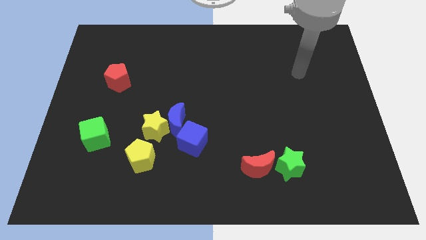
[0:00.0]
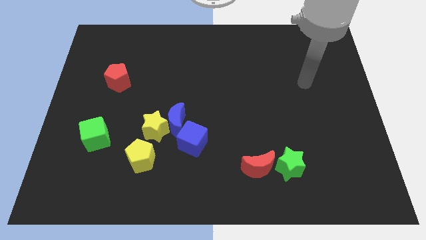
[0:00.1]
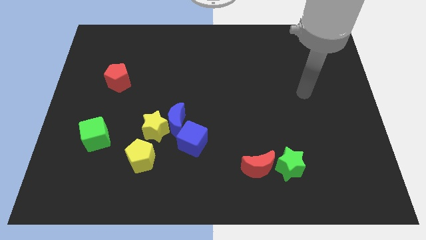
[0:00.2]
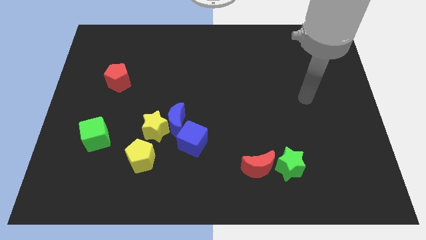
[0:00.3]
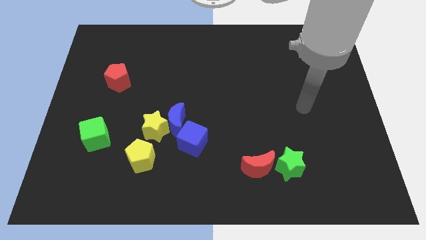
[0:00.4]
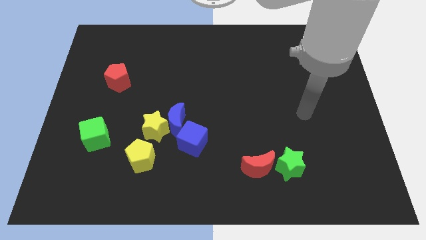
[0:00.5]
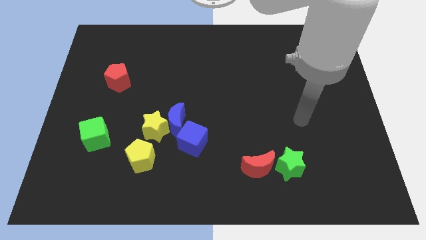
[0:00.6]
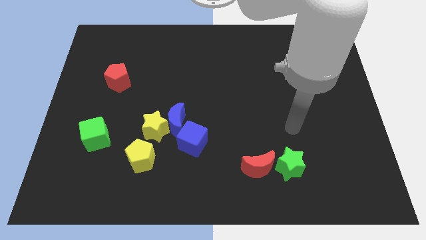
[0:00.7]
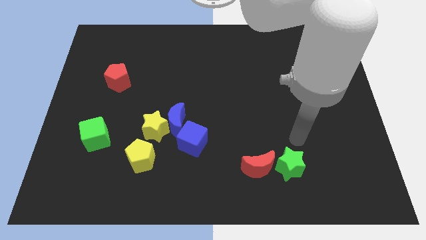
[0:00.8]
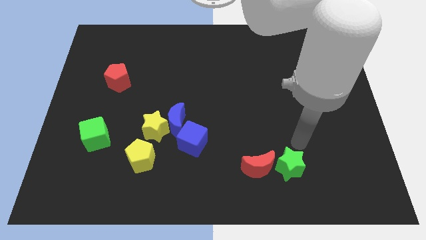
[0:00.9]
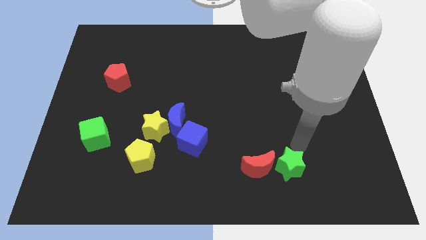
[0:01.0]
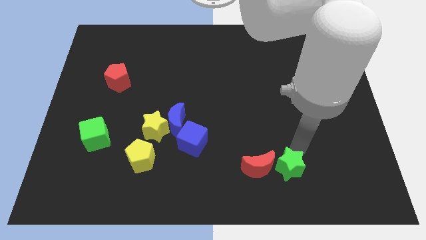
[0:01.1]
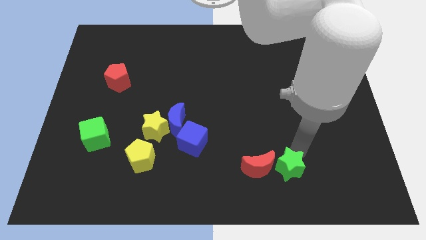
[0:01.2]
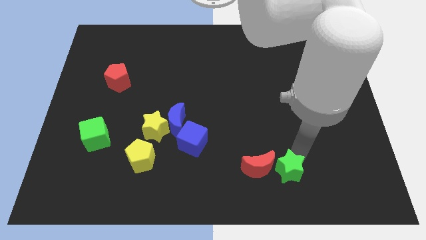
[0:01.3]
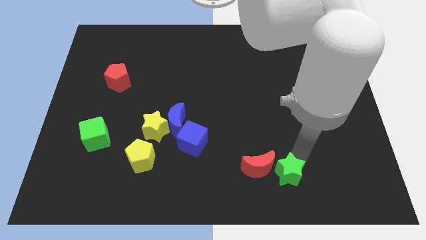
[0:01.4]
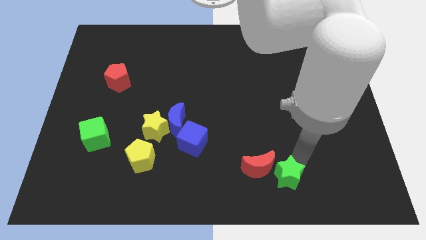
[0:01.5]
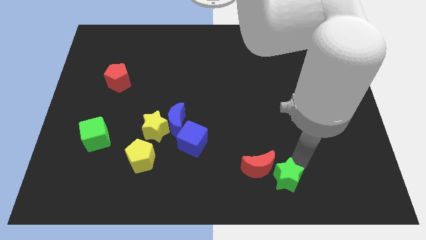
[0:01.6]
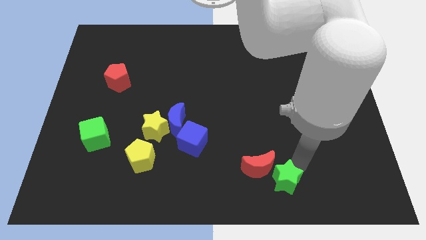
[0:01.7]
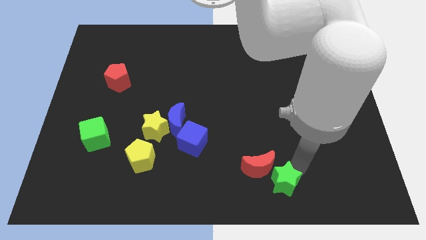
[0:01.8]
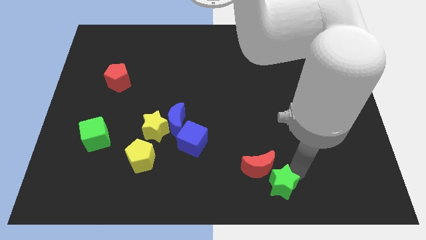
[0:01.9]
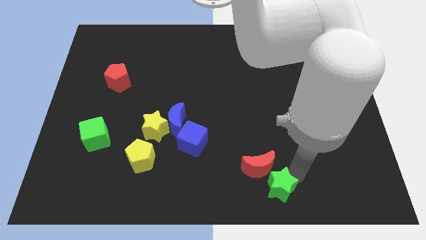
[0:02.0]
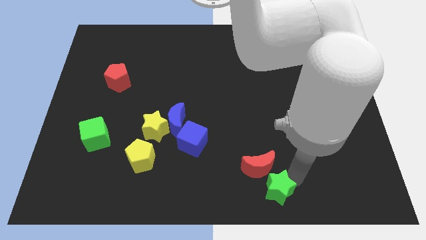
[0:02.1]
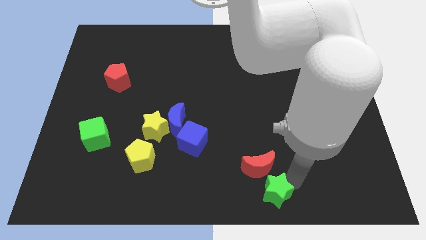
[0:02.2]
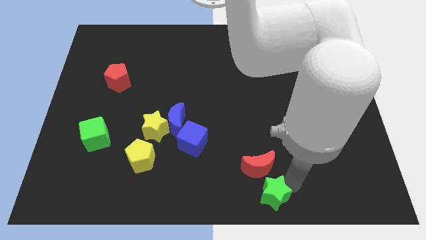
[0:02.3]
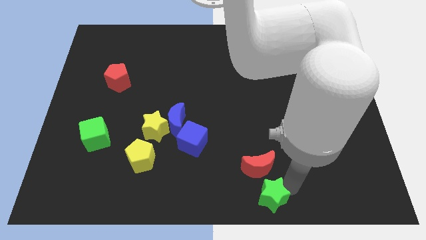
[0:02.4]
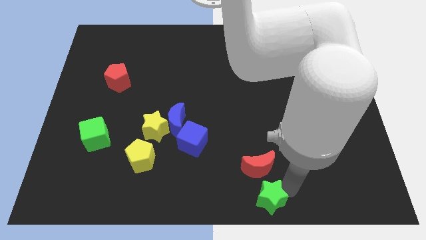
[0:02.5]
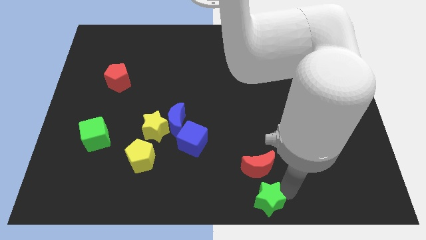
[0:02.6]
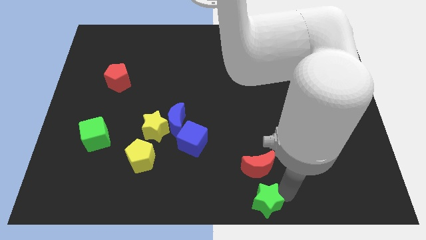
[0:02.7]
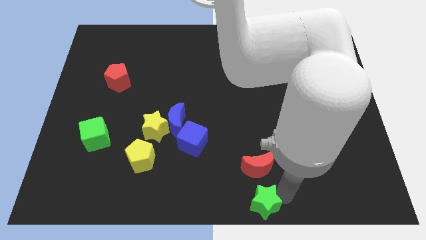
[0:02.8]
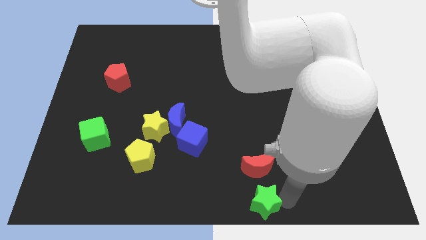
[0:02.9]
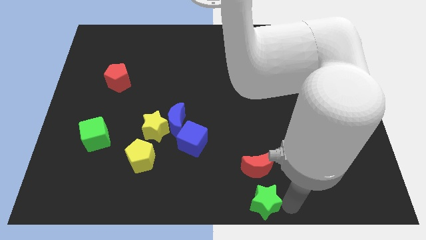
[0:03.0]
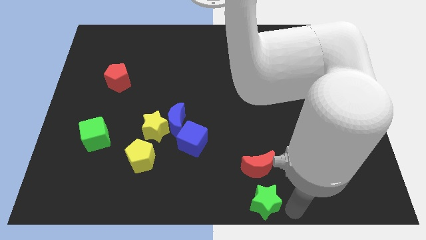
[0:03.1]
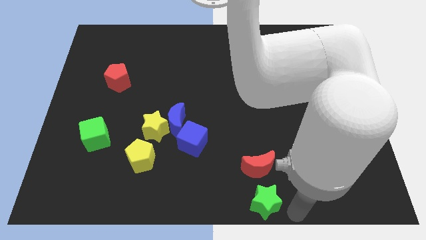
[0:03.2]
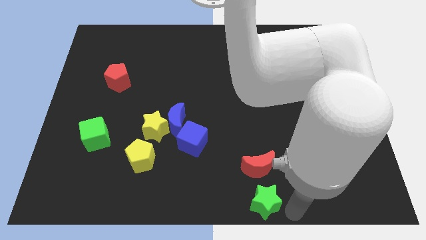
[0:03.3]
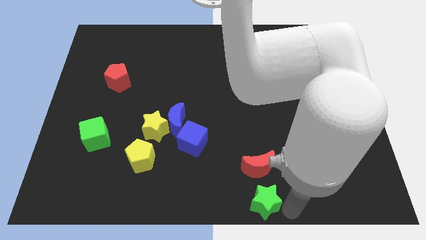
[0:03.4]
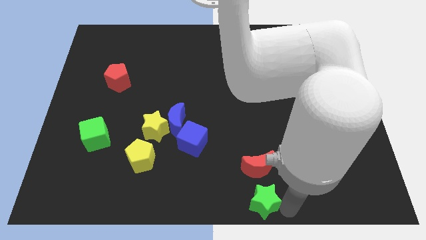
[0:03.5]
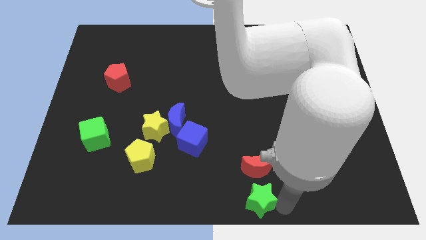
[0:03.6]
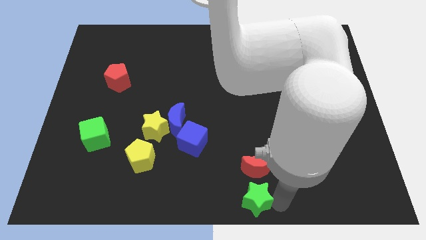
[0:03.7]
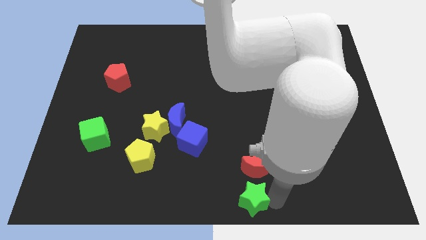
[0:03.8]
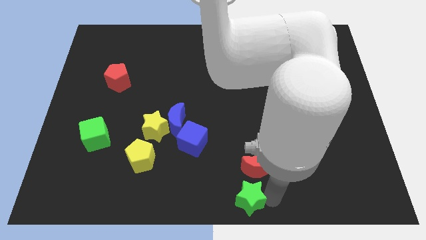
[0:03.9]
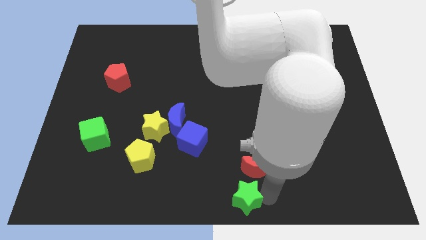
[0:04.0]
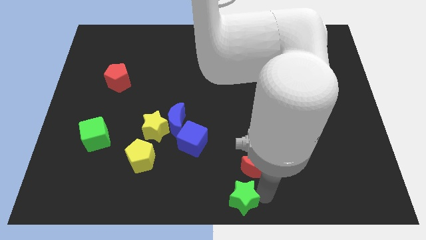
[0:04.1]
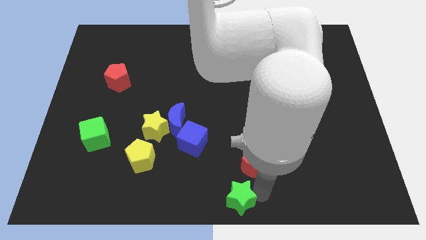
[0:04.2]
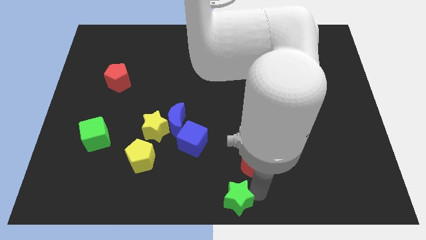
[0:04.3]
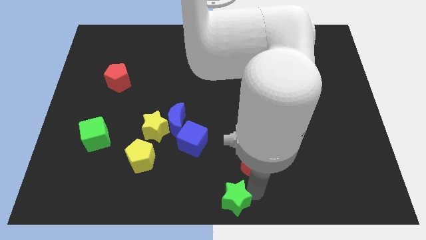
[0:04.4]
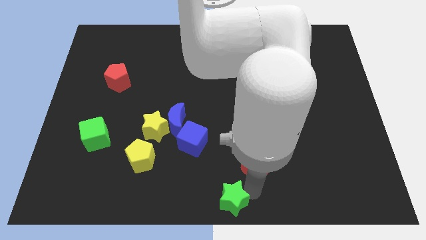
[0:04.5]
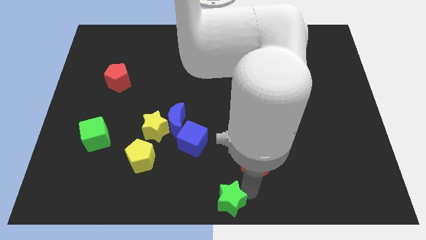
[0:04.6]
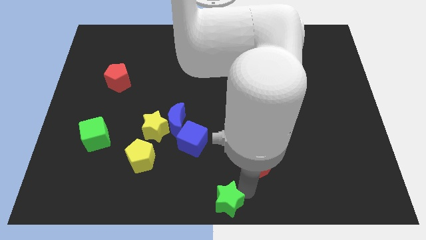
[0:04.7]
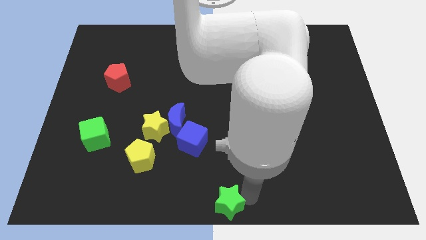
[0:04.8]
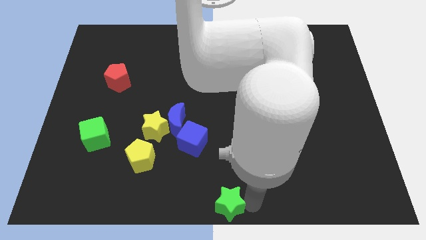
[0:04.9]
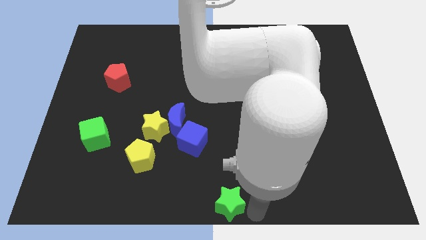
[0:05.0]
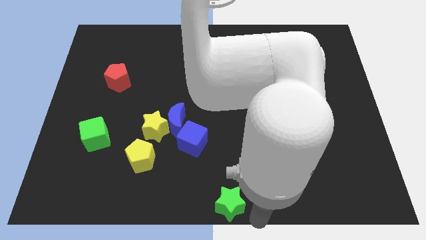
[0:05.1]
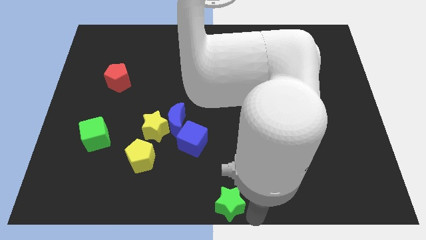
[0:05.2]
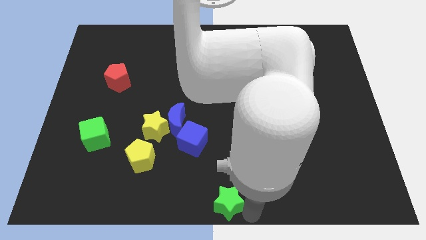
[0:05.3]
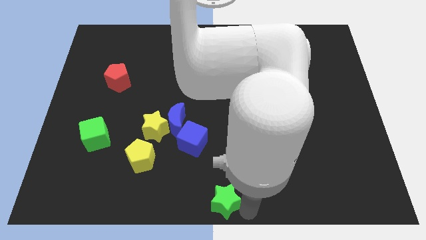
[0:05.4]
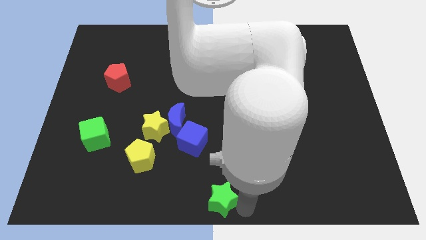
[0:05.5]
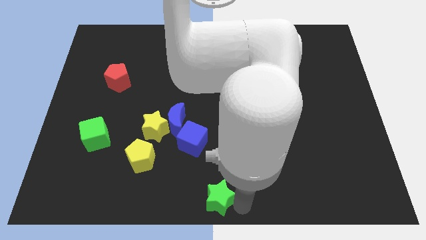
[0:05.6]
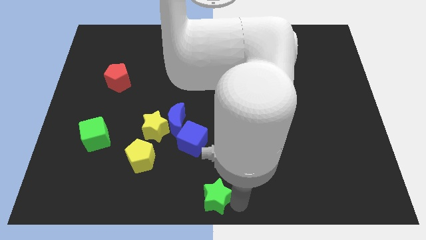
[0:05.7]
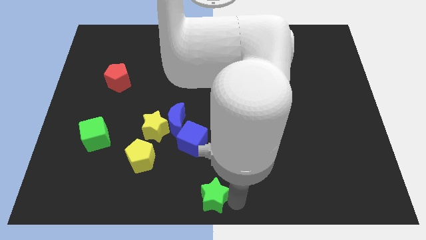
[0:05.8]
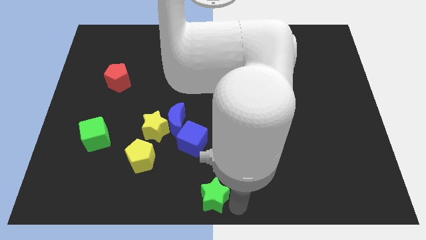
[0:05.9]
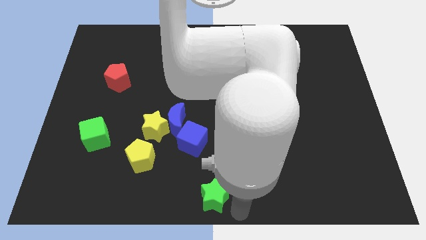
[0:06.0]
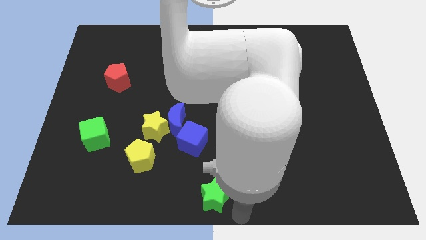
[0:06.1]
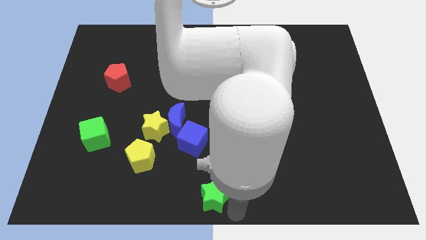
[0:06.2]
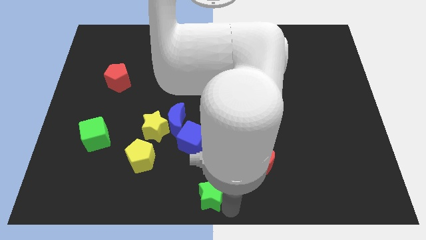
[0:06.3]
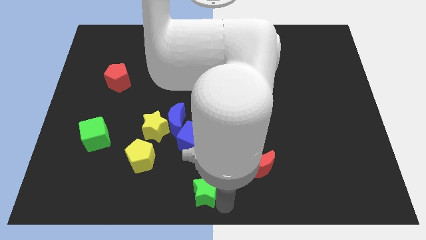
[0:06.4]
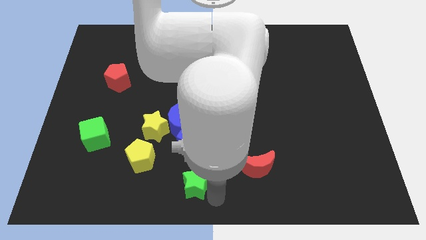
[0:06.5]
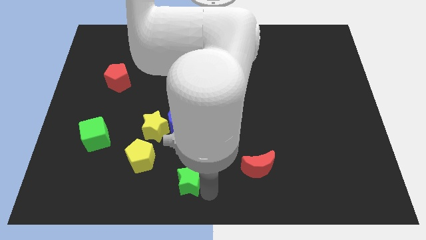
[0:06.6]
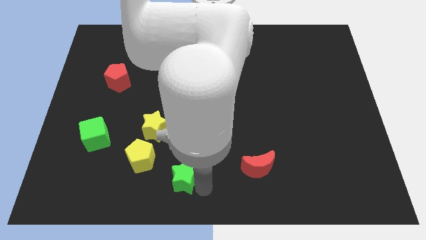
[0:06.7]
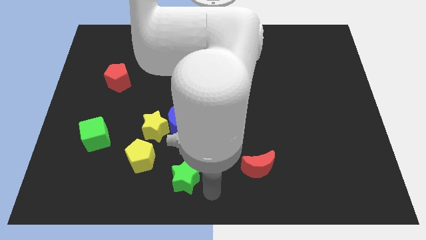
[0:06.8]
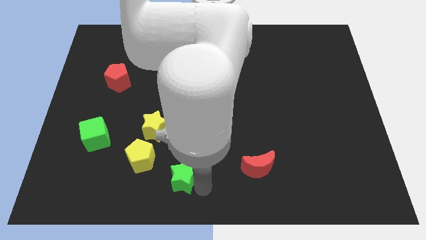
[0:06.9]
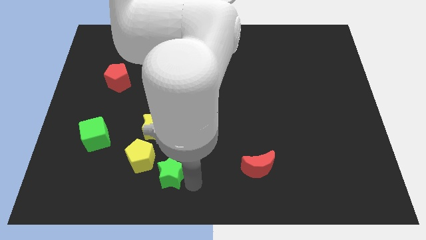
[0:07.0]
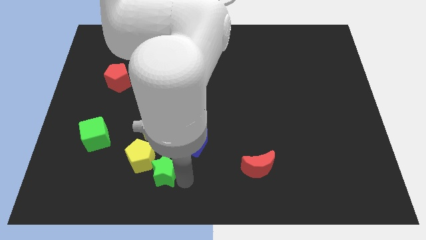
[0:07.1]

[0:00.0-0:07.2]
slide the green star close to the yellow pentagon
